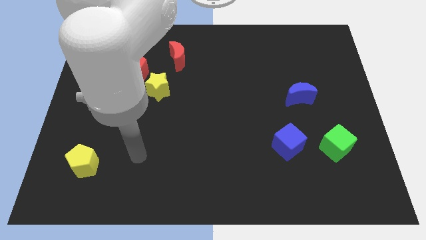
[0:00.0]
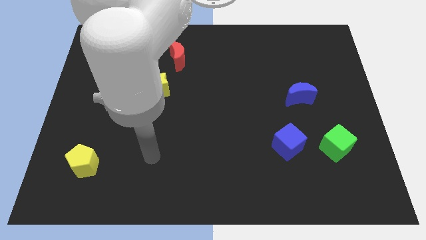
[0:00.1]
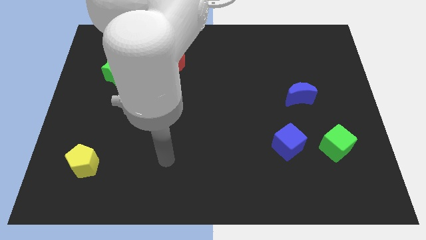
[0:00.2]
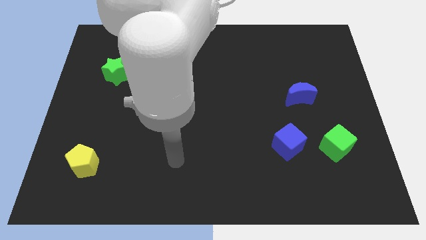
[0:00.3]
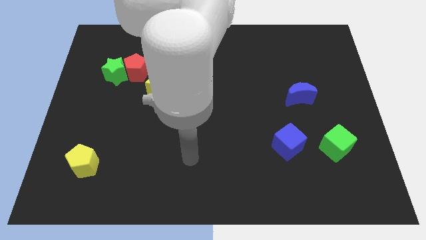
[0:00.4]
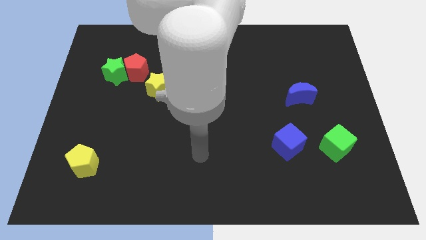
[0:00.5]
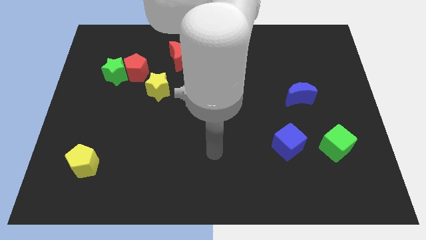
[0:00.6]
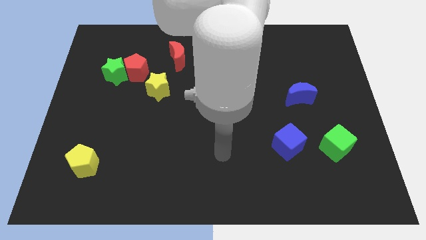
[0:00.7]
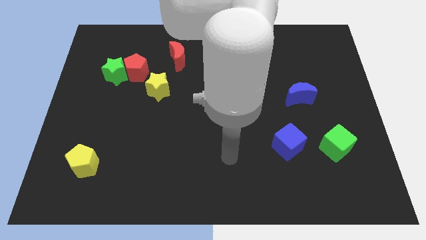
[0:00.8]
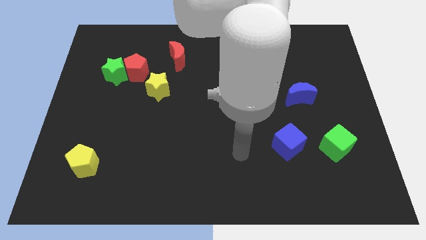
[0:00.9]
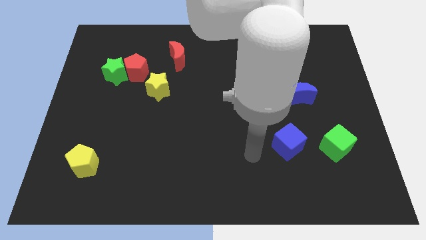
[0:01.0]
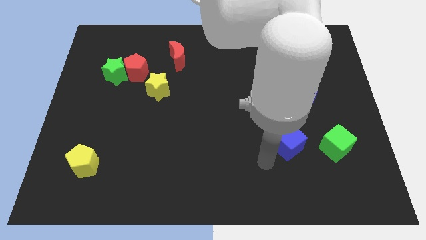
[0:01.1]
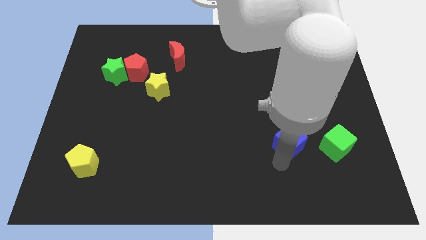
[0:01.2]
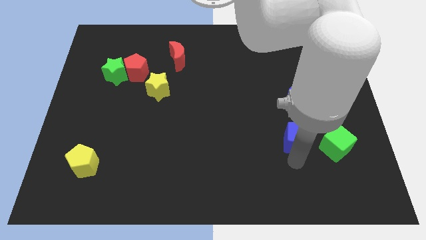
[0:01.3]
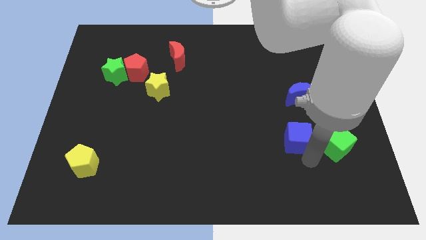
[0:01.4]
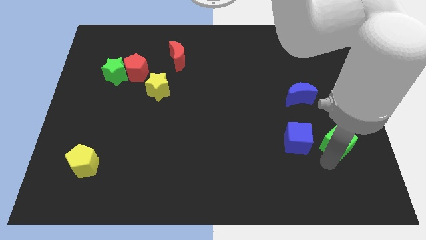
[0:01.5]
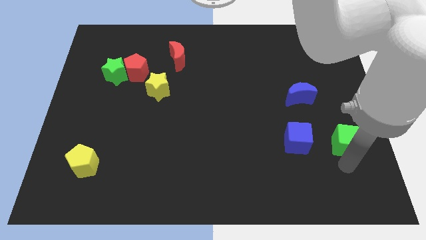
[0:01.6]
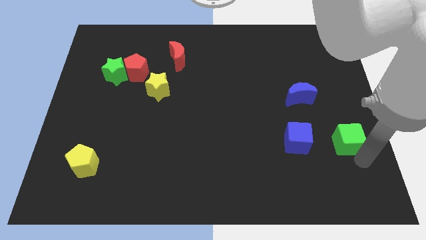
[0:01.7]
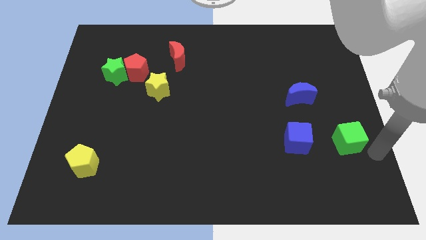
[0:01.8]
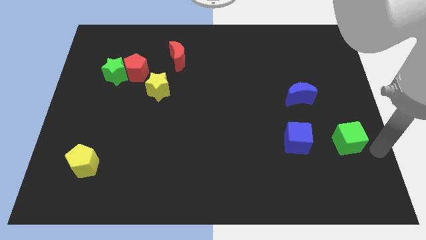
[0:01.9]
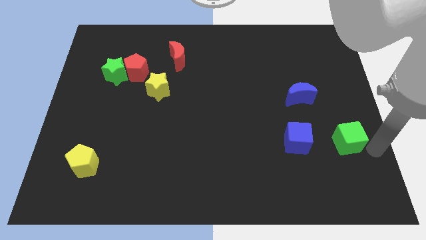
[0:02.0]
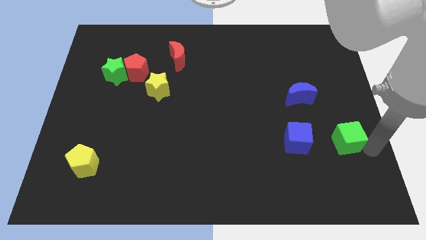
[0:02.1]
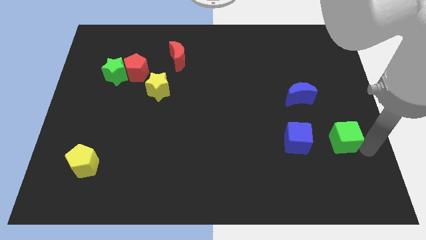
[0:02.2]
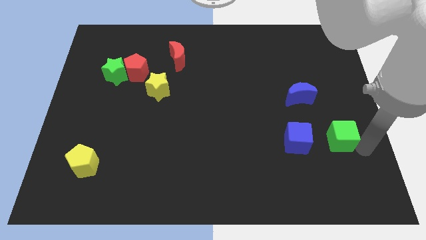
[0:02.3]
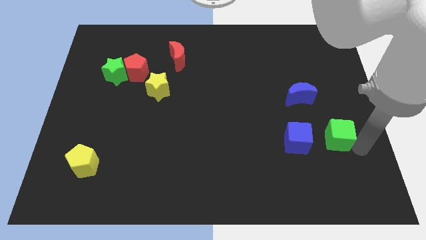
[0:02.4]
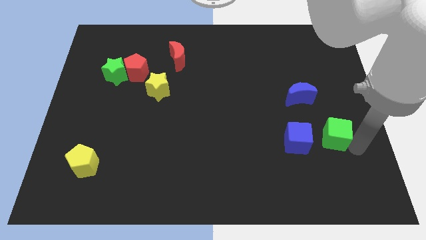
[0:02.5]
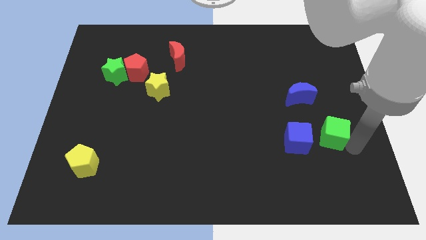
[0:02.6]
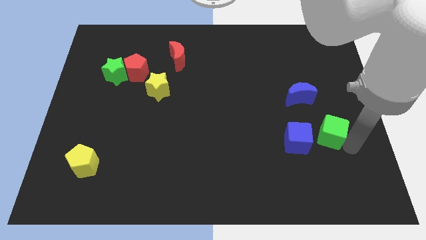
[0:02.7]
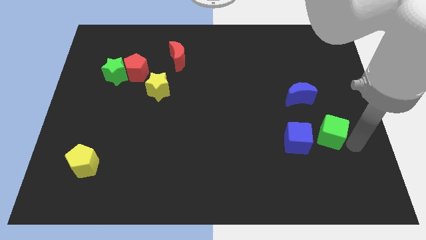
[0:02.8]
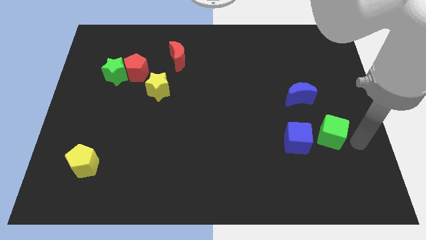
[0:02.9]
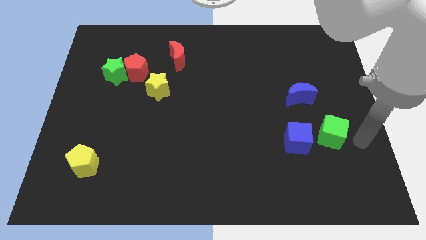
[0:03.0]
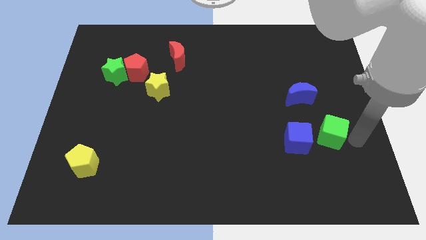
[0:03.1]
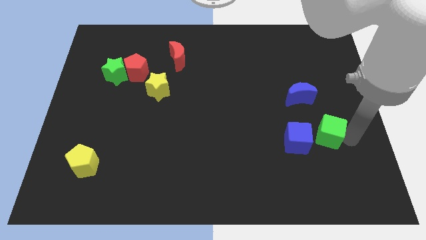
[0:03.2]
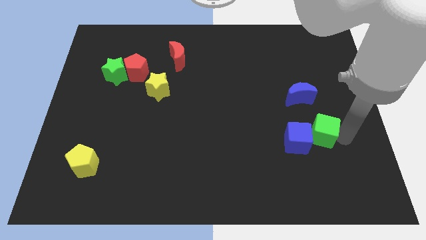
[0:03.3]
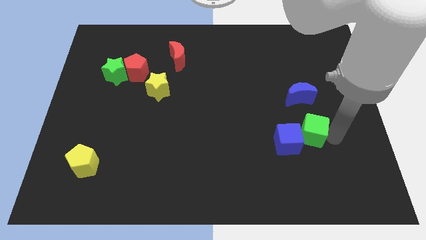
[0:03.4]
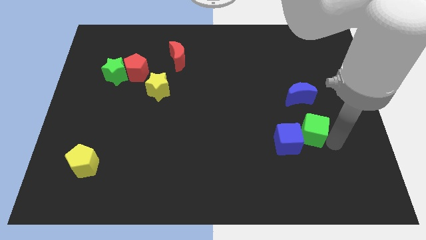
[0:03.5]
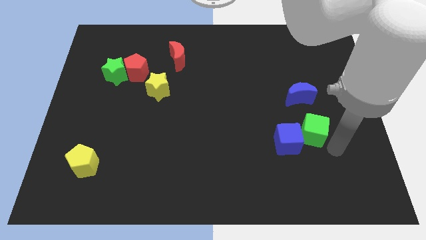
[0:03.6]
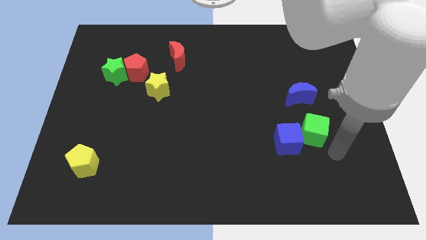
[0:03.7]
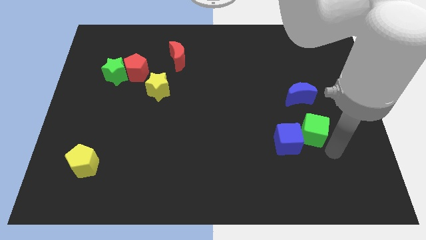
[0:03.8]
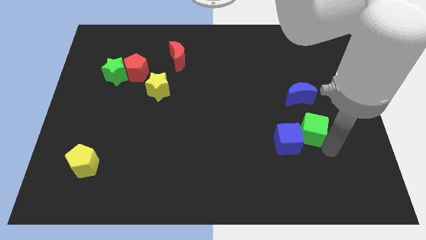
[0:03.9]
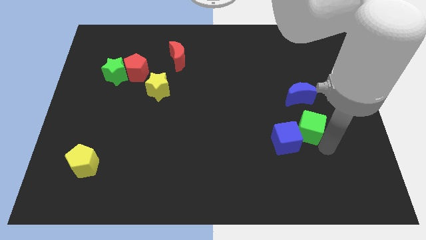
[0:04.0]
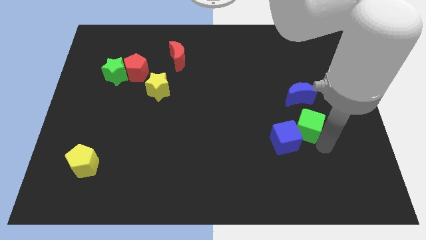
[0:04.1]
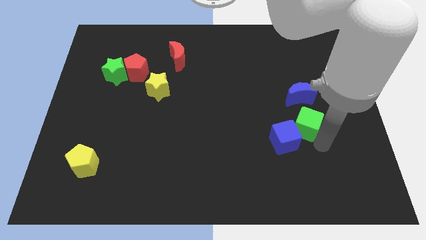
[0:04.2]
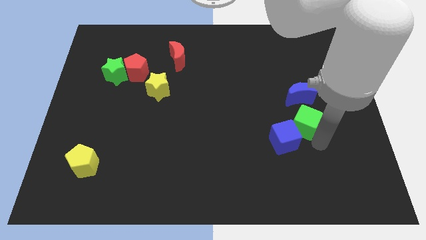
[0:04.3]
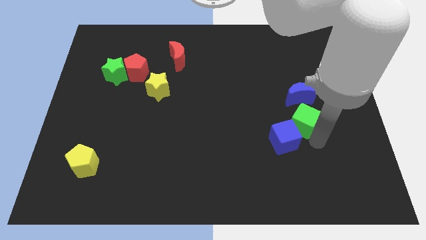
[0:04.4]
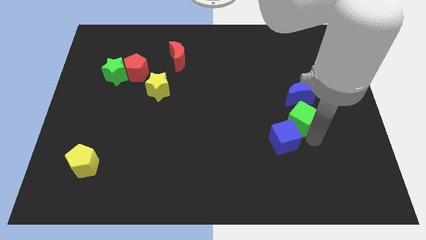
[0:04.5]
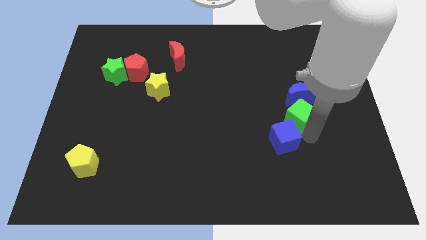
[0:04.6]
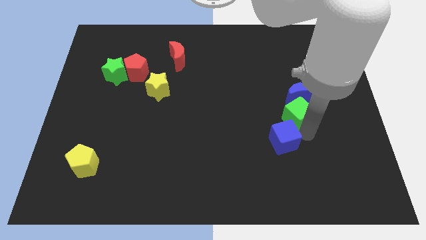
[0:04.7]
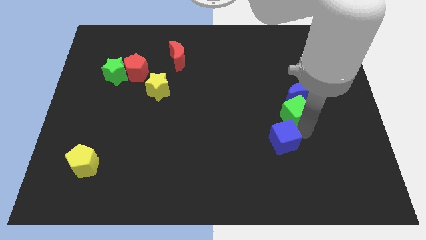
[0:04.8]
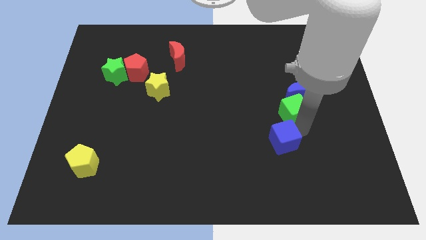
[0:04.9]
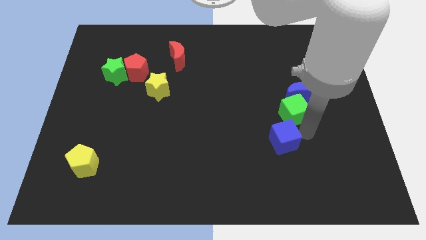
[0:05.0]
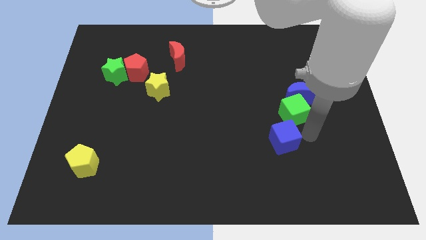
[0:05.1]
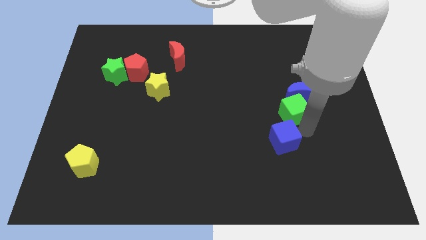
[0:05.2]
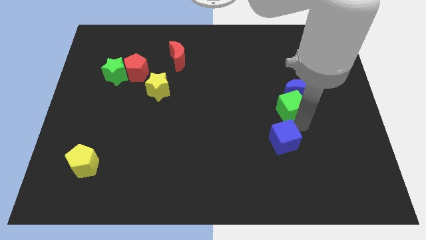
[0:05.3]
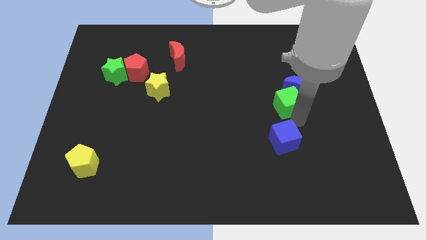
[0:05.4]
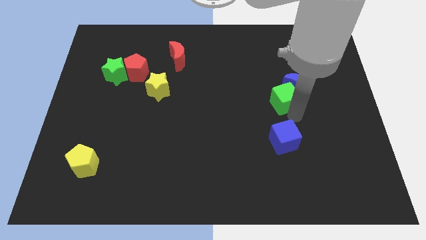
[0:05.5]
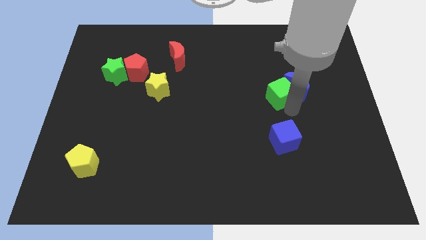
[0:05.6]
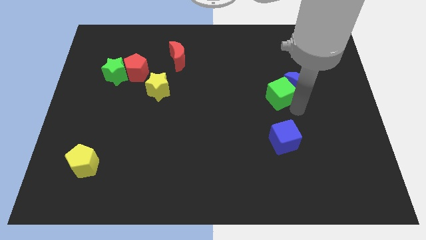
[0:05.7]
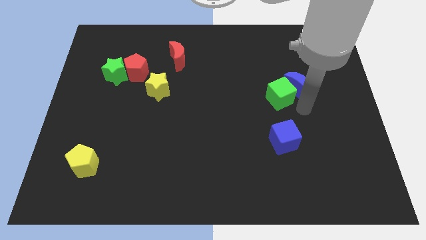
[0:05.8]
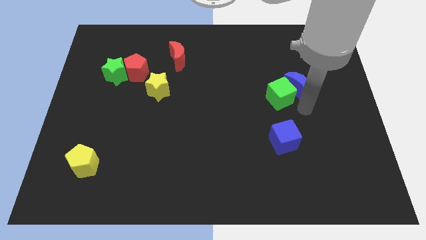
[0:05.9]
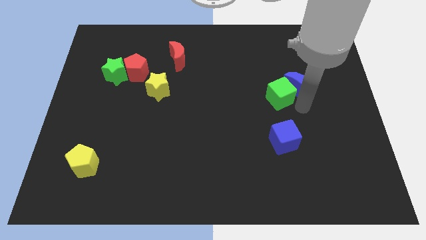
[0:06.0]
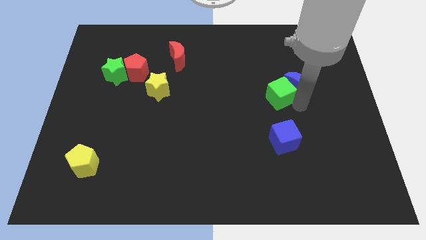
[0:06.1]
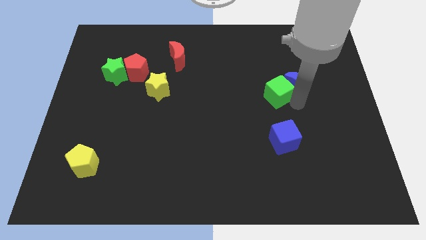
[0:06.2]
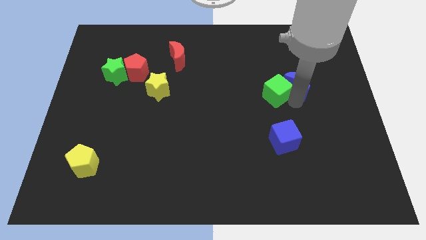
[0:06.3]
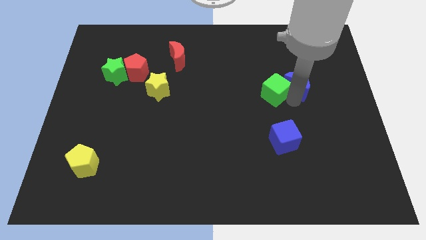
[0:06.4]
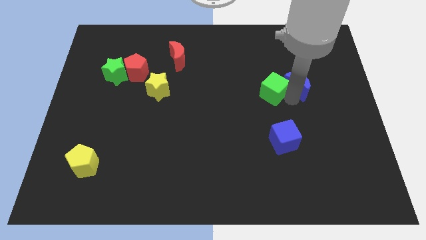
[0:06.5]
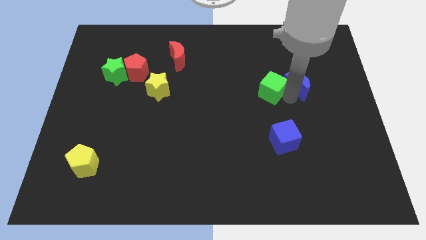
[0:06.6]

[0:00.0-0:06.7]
slide the green cube up and then left

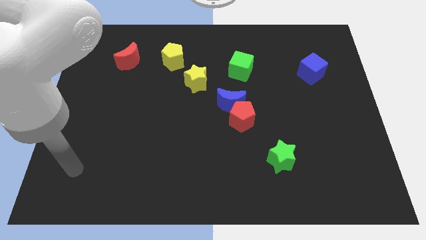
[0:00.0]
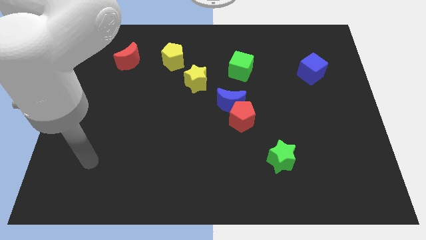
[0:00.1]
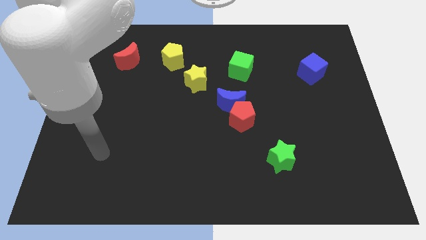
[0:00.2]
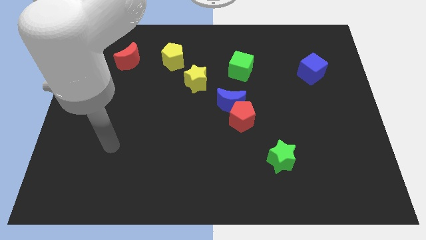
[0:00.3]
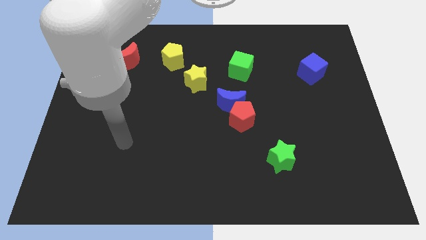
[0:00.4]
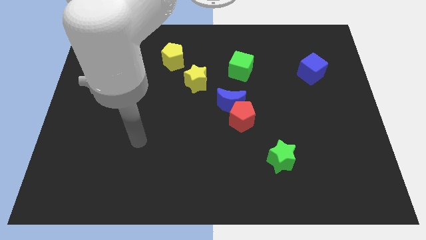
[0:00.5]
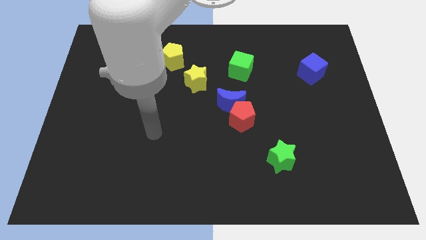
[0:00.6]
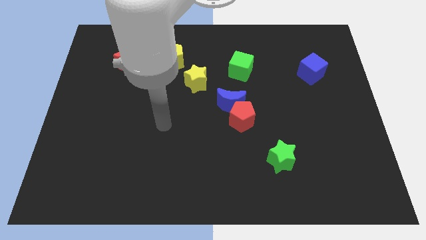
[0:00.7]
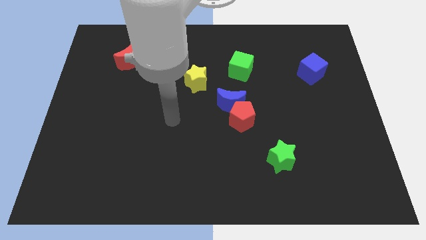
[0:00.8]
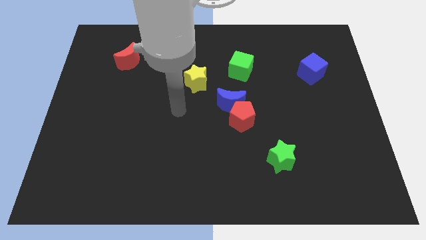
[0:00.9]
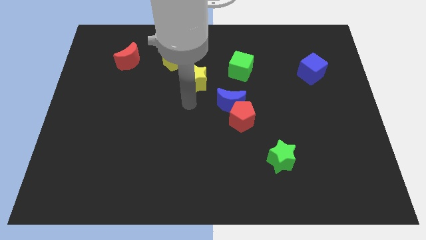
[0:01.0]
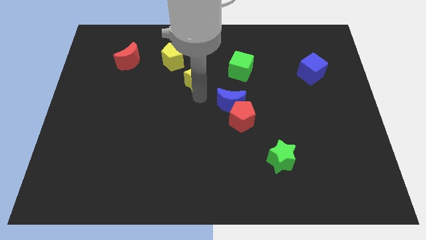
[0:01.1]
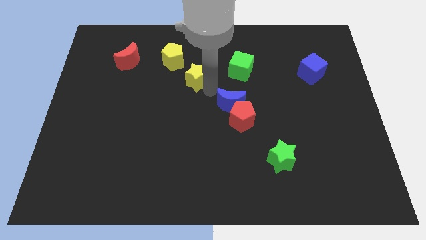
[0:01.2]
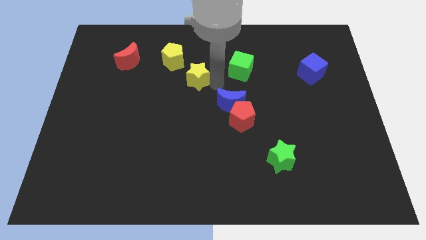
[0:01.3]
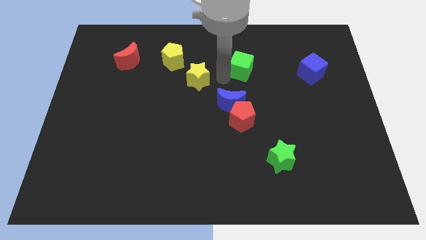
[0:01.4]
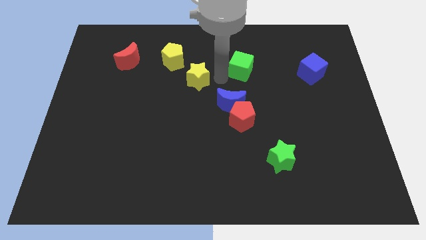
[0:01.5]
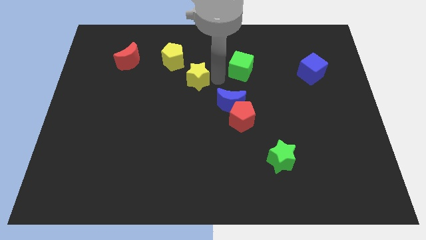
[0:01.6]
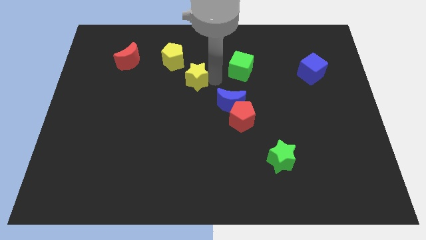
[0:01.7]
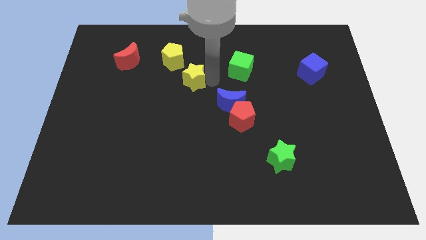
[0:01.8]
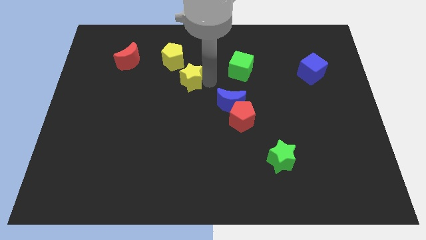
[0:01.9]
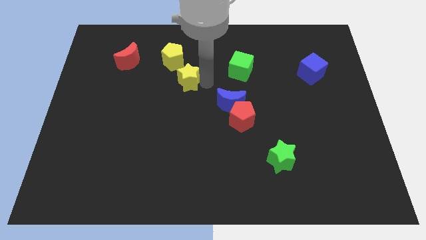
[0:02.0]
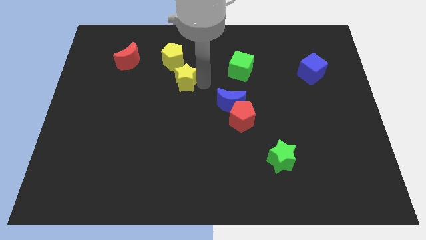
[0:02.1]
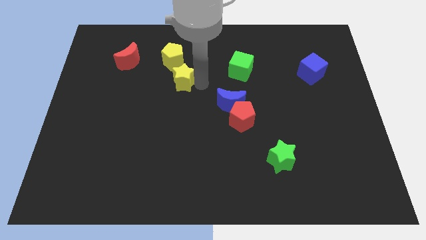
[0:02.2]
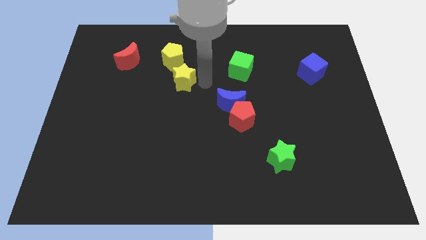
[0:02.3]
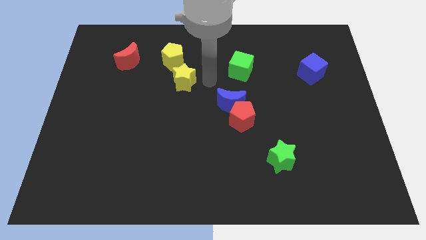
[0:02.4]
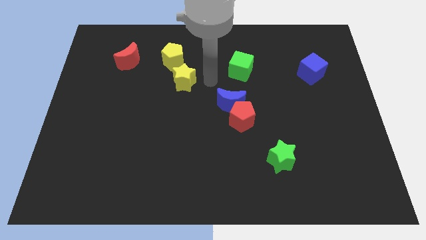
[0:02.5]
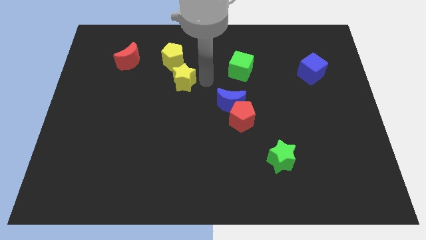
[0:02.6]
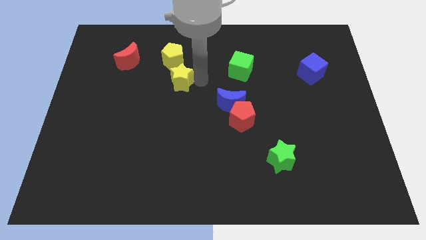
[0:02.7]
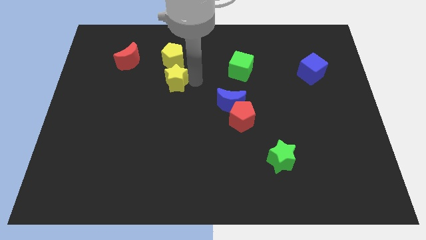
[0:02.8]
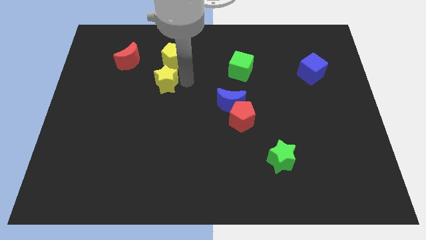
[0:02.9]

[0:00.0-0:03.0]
slide the yellow star to the left slightly
